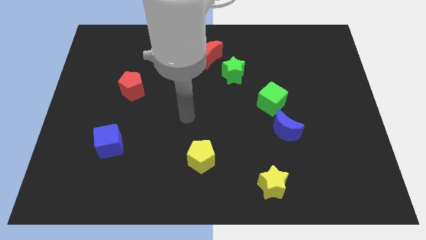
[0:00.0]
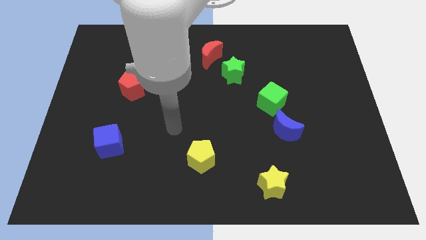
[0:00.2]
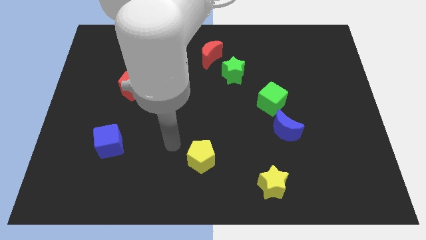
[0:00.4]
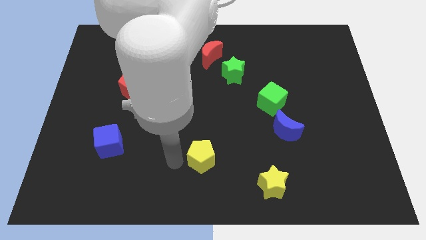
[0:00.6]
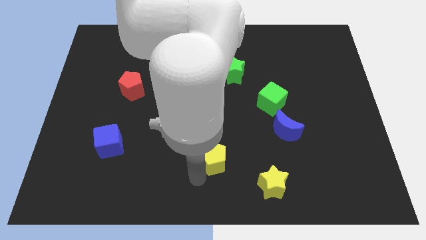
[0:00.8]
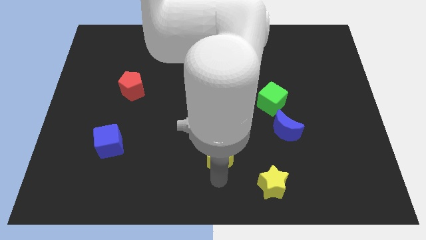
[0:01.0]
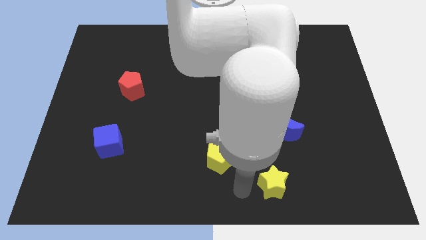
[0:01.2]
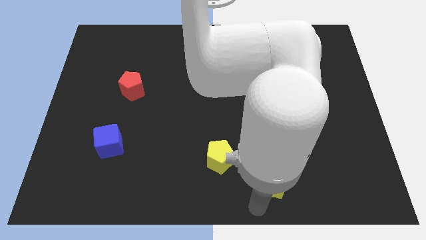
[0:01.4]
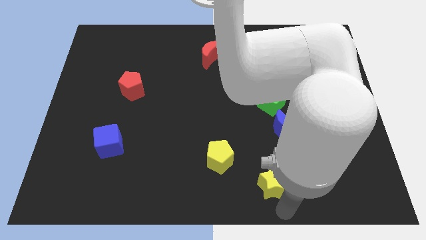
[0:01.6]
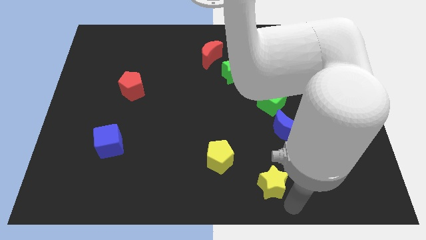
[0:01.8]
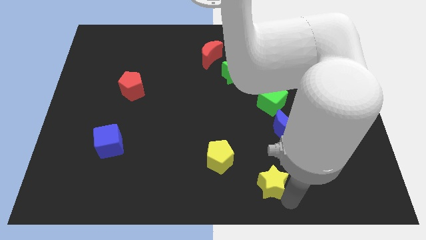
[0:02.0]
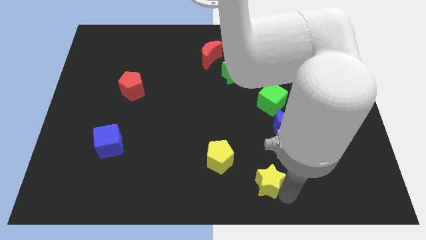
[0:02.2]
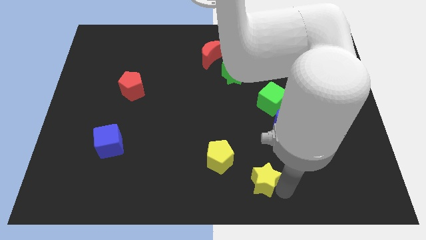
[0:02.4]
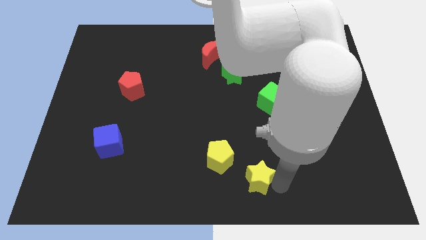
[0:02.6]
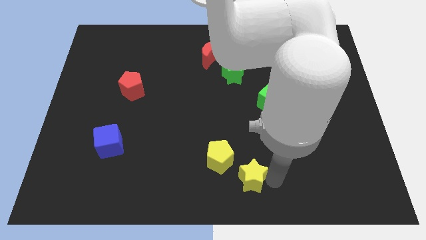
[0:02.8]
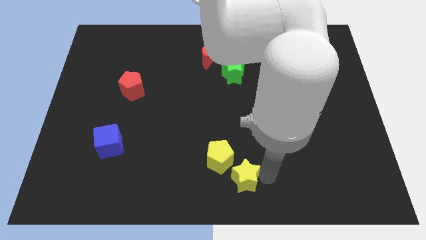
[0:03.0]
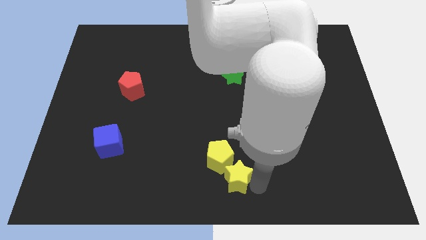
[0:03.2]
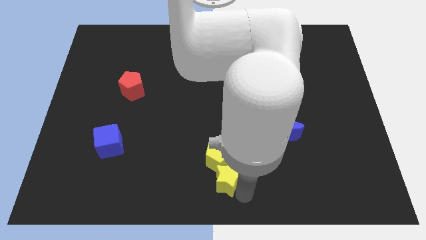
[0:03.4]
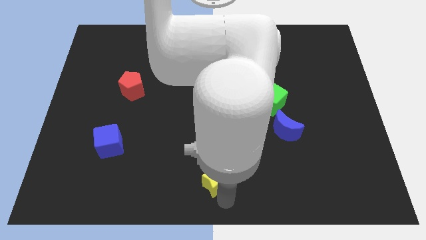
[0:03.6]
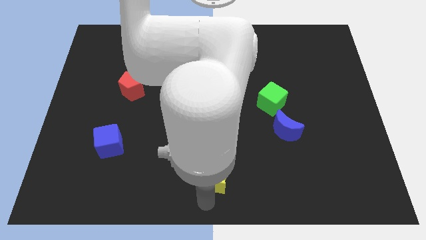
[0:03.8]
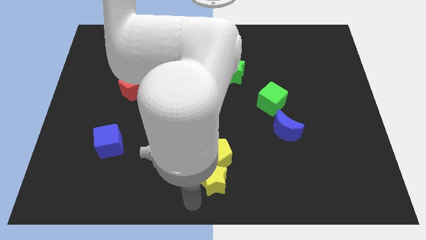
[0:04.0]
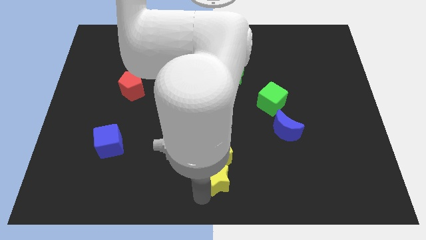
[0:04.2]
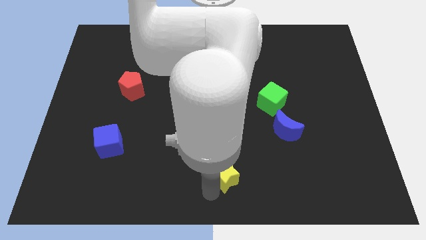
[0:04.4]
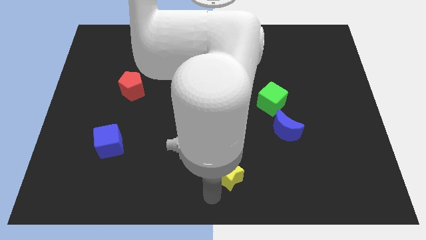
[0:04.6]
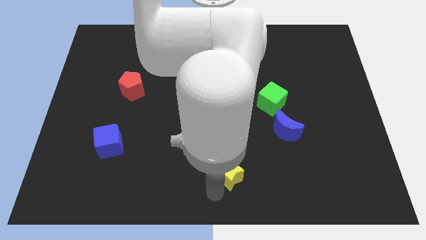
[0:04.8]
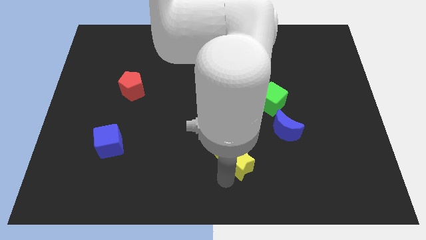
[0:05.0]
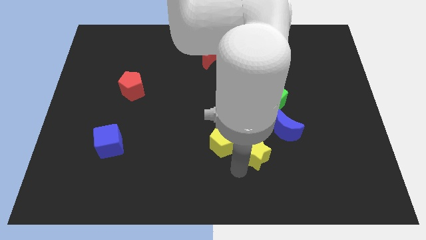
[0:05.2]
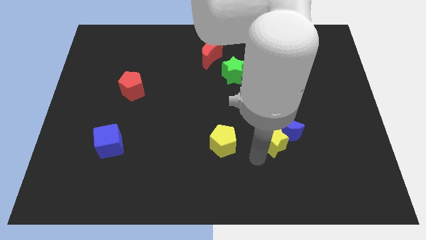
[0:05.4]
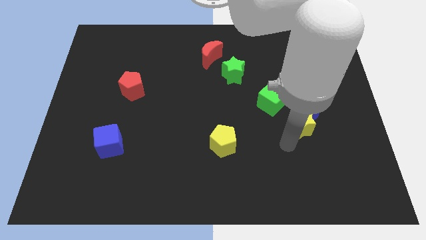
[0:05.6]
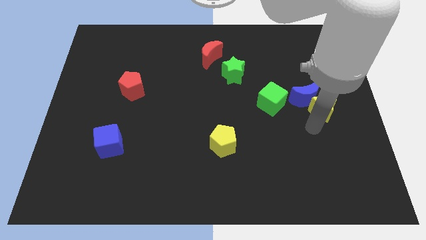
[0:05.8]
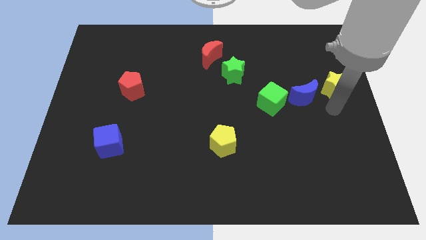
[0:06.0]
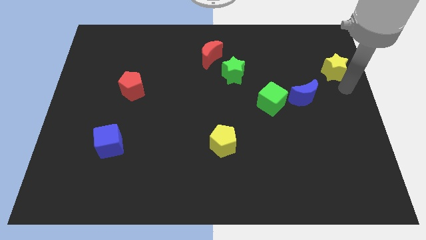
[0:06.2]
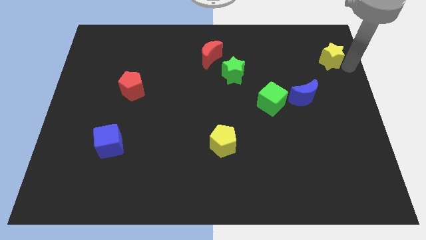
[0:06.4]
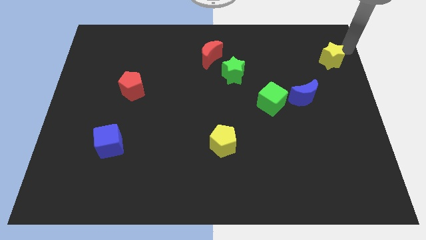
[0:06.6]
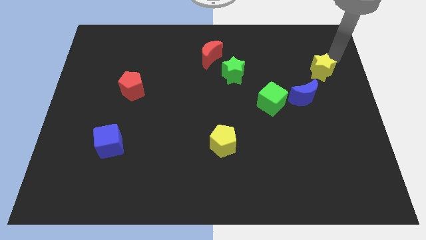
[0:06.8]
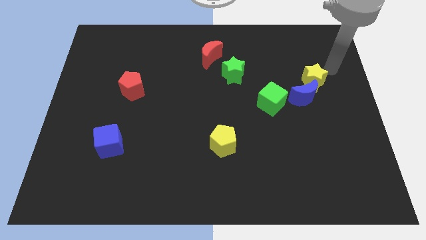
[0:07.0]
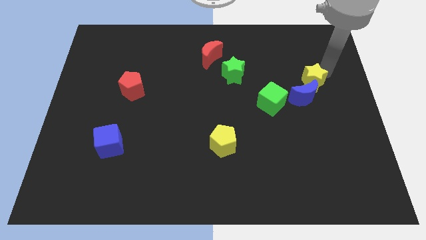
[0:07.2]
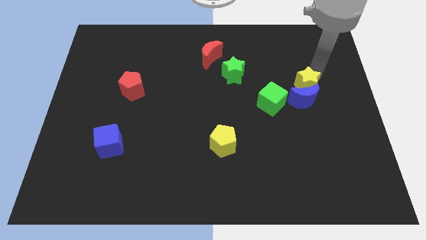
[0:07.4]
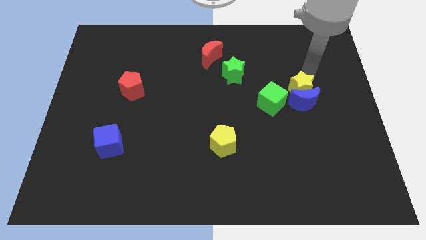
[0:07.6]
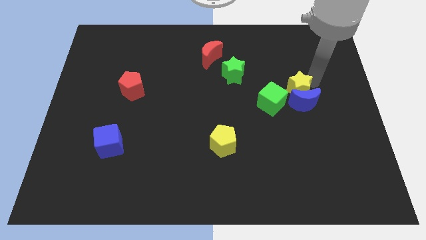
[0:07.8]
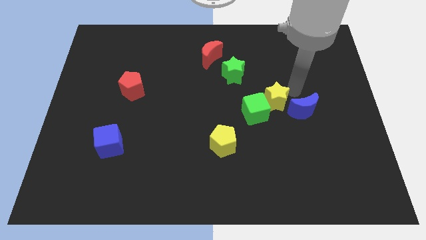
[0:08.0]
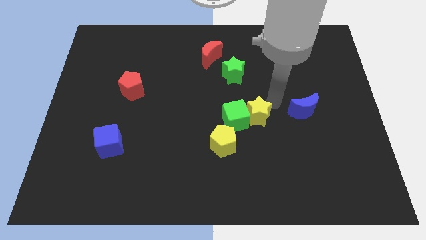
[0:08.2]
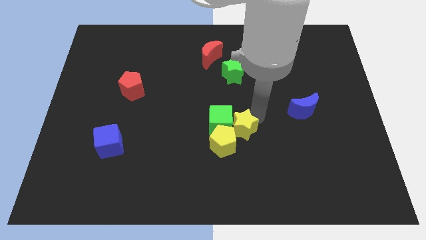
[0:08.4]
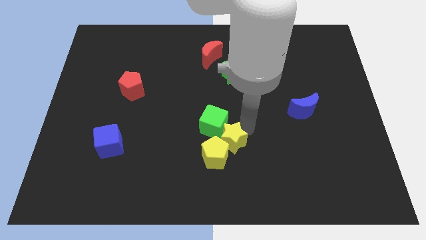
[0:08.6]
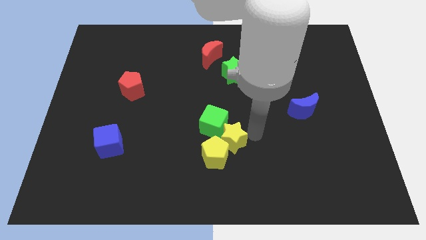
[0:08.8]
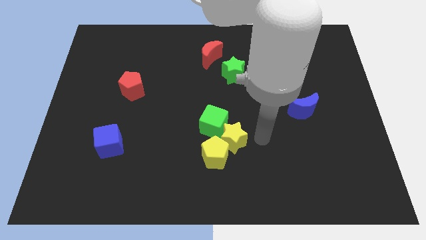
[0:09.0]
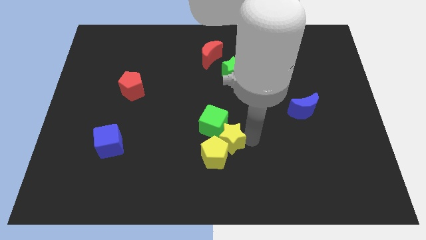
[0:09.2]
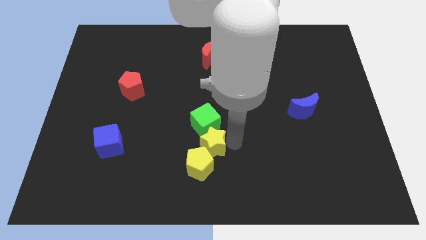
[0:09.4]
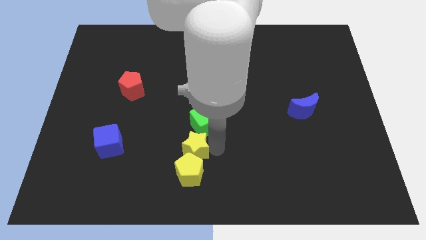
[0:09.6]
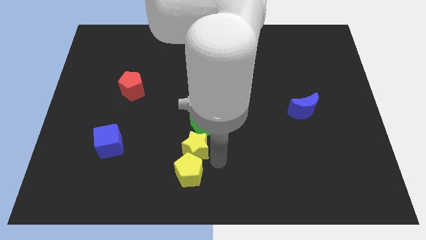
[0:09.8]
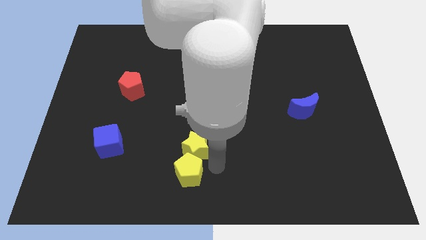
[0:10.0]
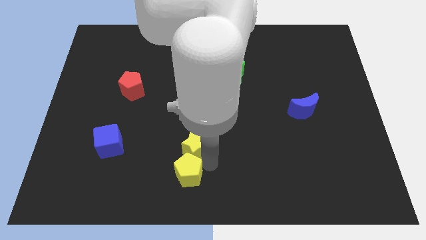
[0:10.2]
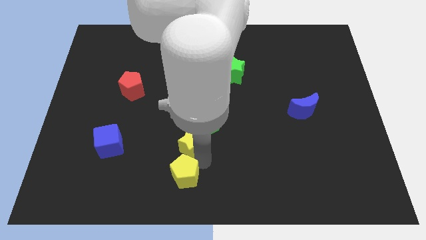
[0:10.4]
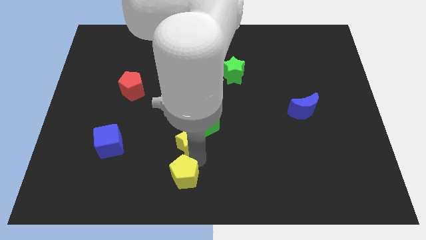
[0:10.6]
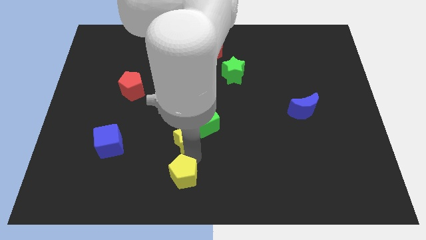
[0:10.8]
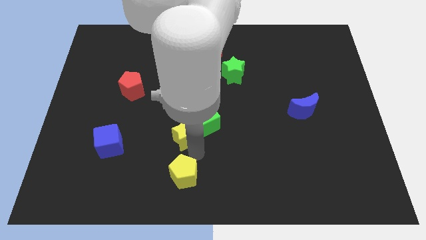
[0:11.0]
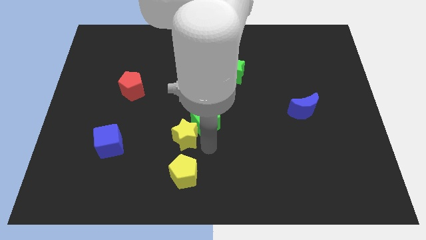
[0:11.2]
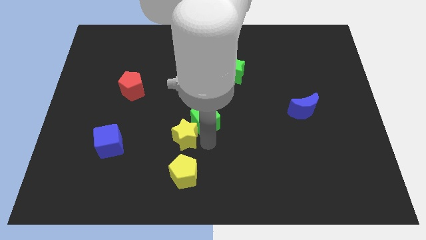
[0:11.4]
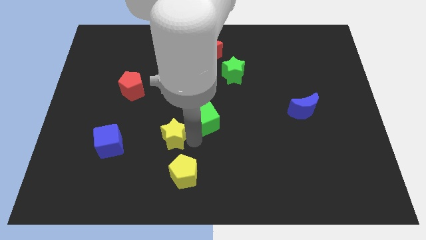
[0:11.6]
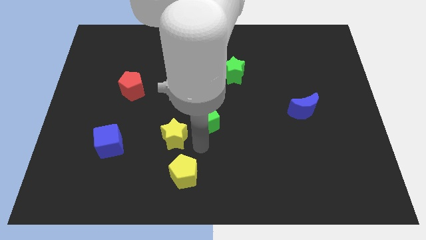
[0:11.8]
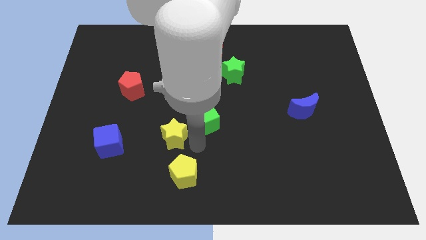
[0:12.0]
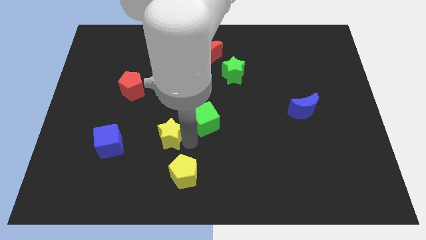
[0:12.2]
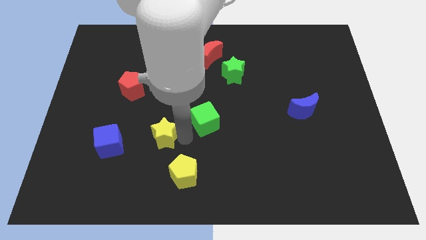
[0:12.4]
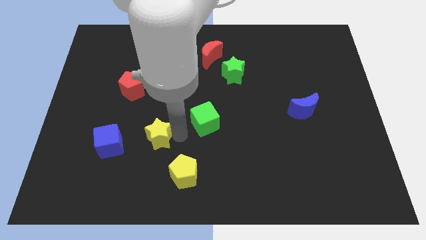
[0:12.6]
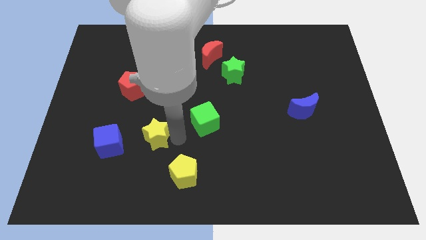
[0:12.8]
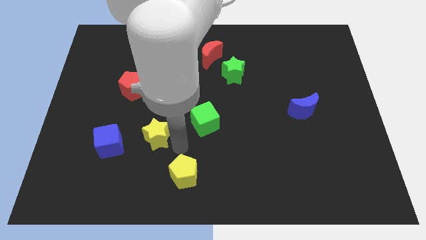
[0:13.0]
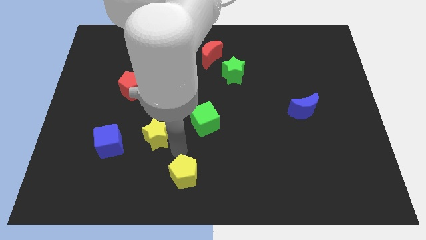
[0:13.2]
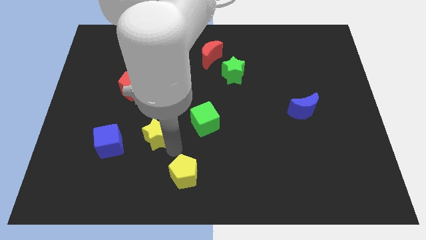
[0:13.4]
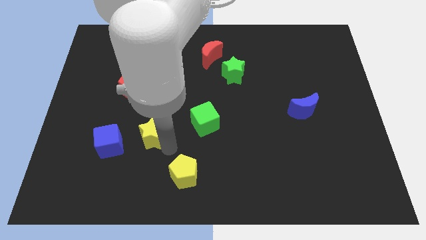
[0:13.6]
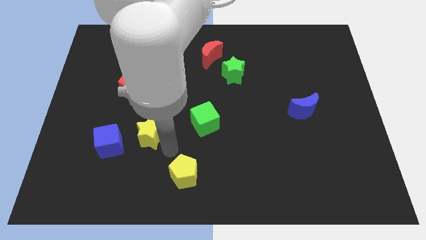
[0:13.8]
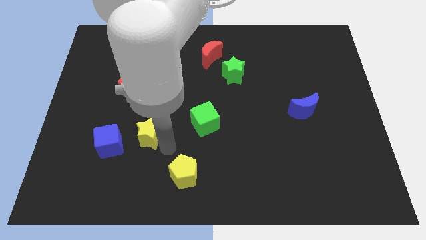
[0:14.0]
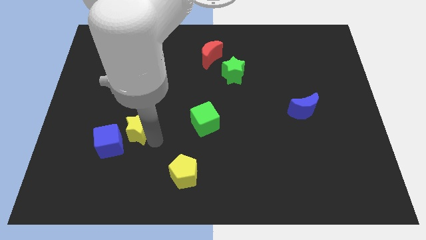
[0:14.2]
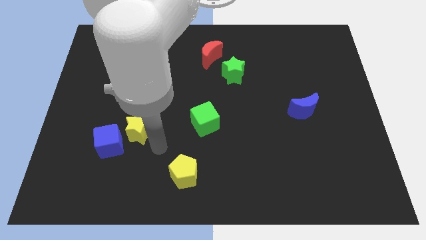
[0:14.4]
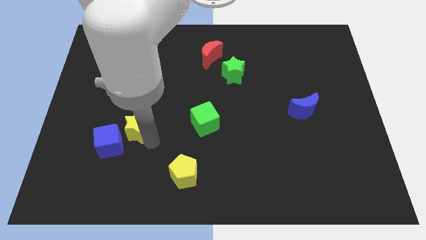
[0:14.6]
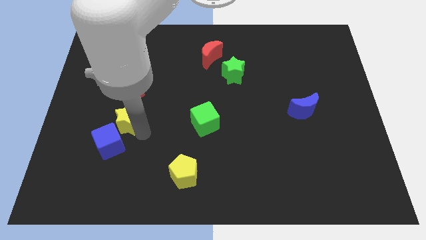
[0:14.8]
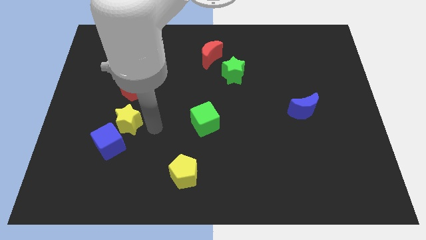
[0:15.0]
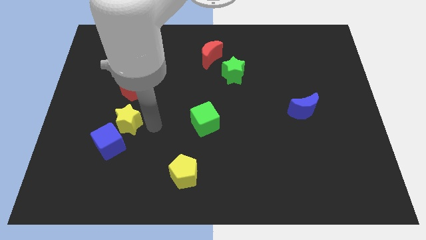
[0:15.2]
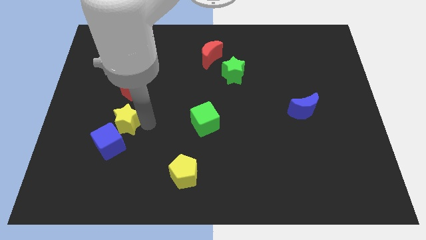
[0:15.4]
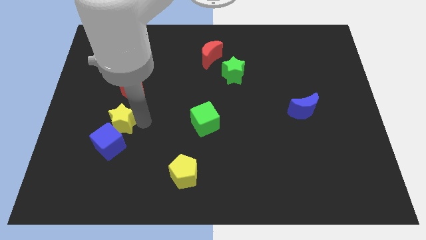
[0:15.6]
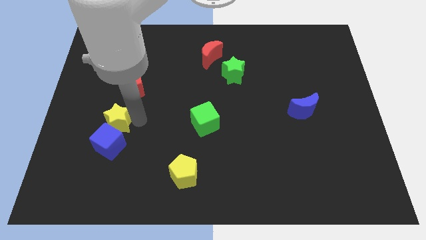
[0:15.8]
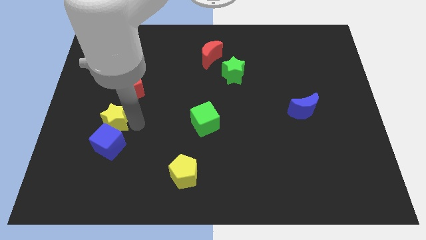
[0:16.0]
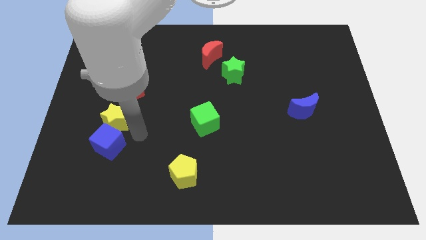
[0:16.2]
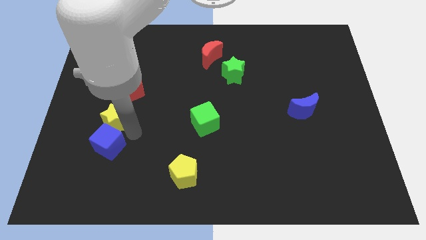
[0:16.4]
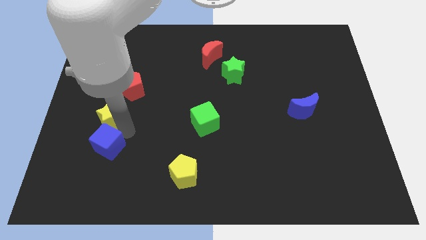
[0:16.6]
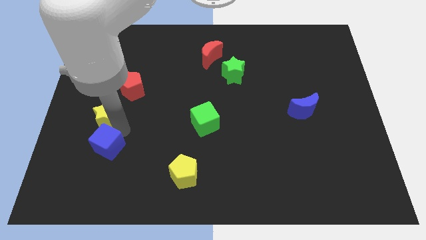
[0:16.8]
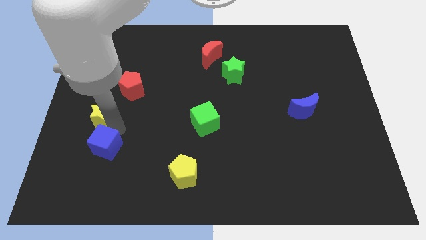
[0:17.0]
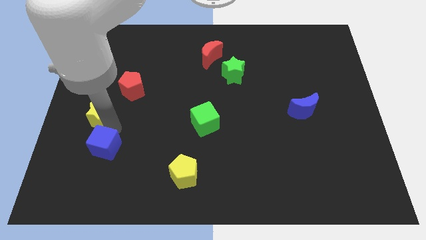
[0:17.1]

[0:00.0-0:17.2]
put the yellow star to the center left
